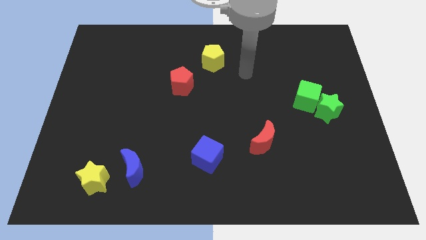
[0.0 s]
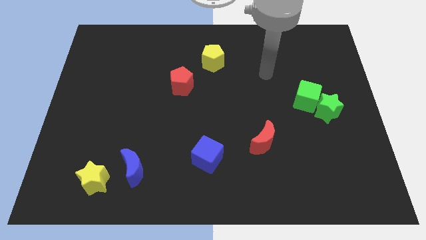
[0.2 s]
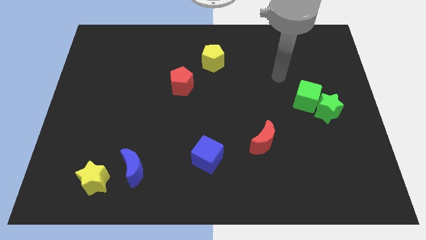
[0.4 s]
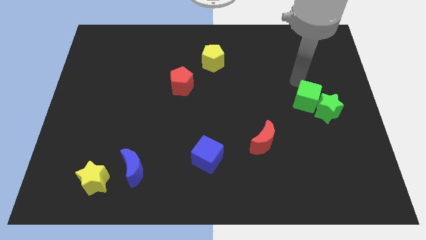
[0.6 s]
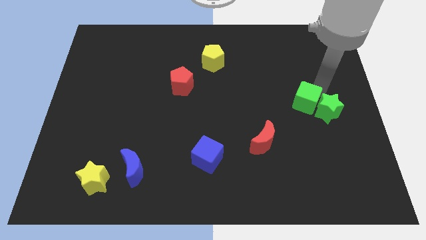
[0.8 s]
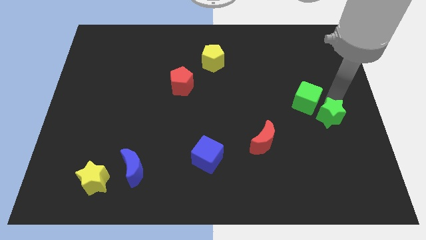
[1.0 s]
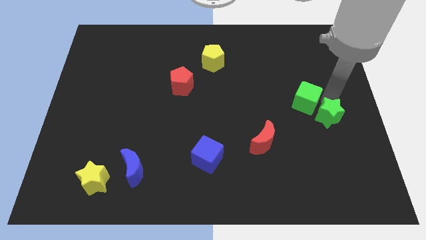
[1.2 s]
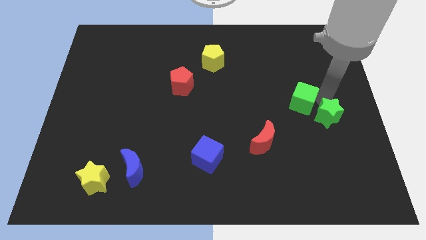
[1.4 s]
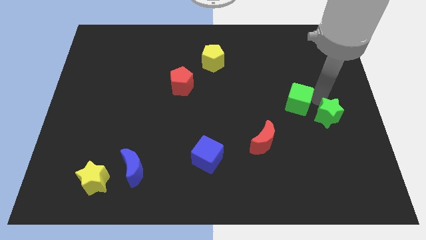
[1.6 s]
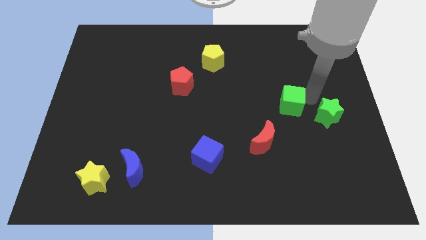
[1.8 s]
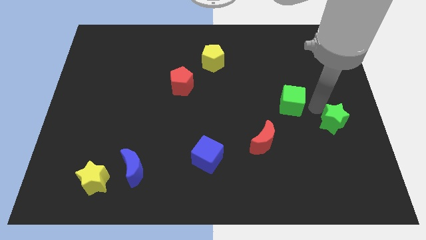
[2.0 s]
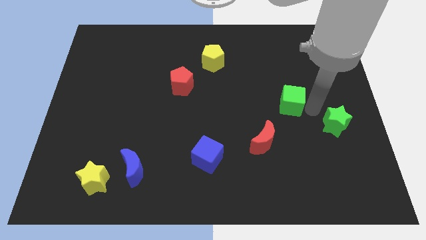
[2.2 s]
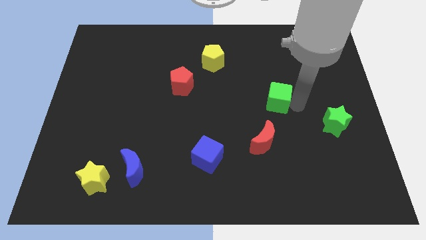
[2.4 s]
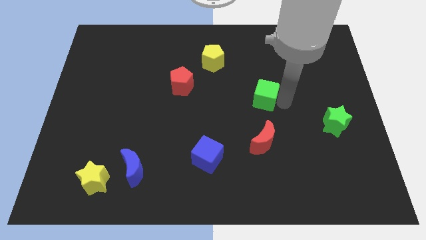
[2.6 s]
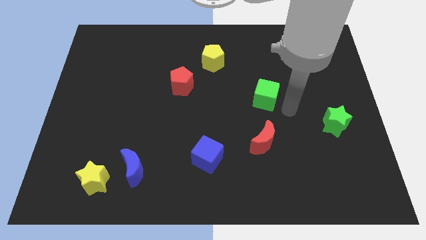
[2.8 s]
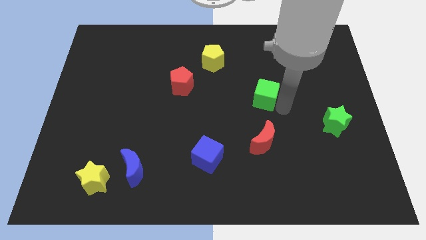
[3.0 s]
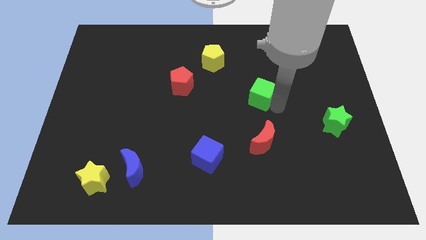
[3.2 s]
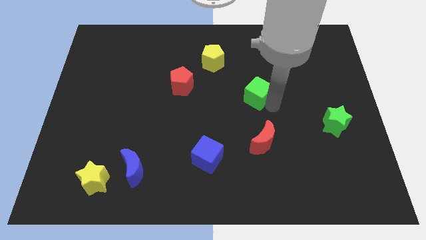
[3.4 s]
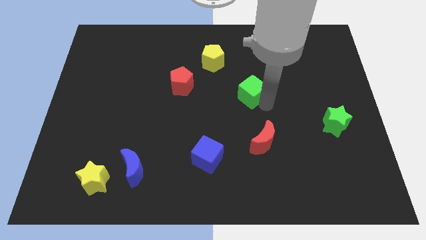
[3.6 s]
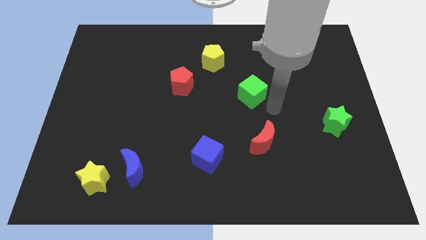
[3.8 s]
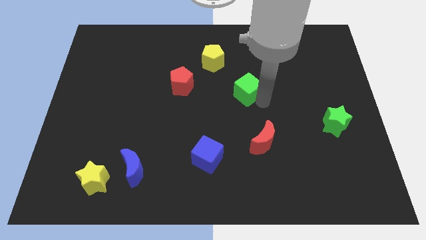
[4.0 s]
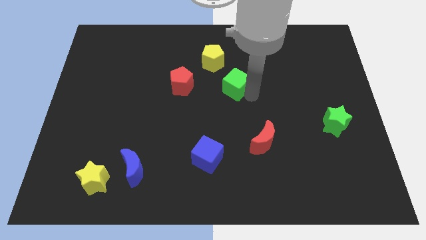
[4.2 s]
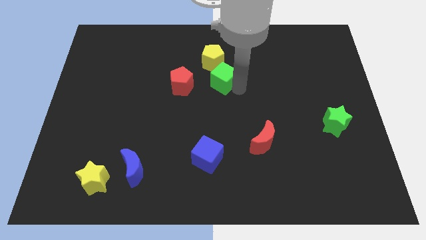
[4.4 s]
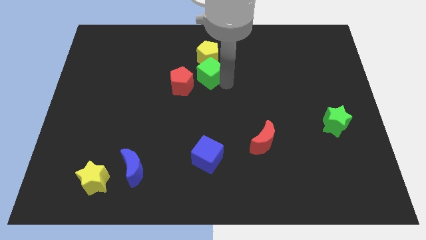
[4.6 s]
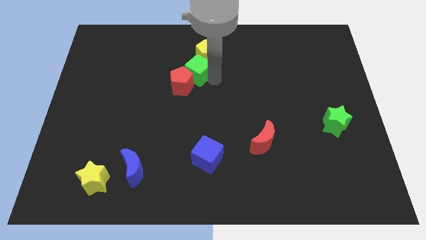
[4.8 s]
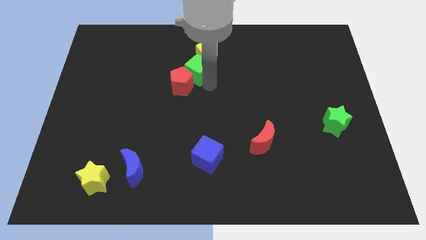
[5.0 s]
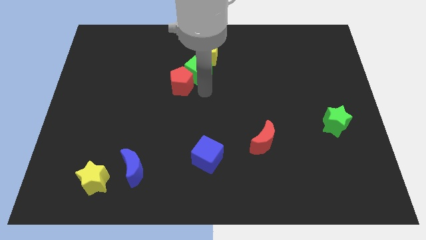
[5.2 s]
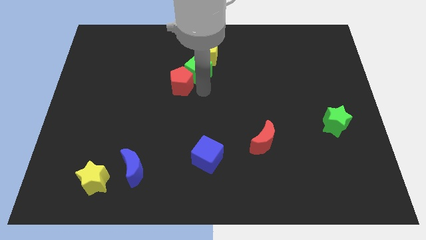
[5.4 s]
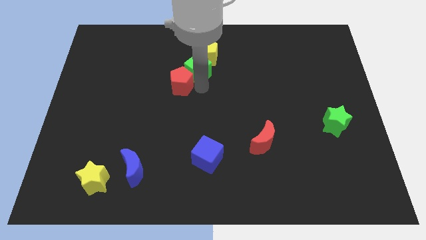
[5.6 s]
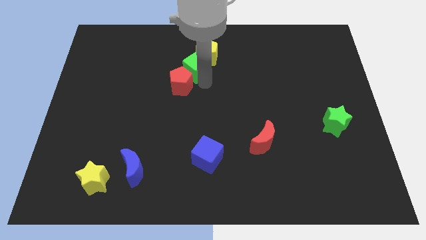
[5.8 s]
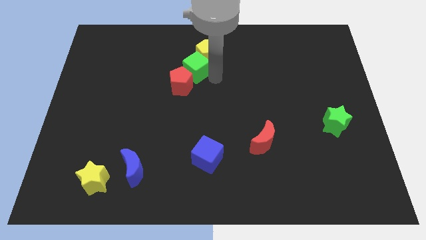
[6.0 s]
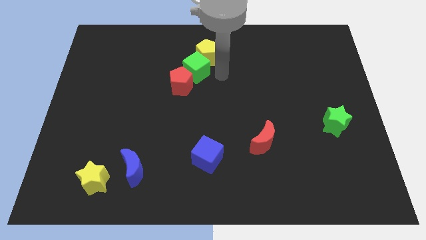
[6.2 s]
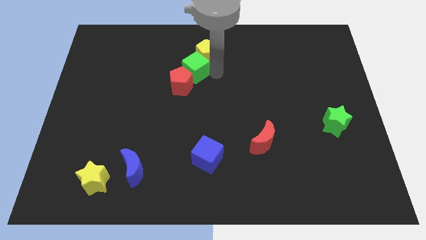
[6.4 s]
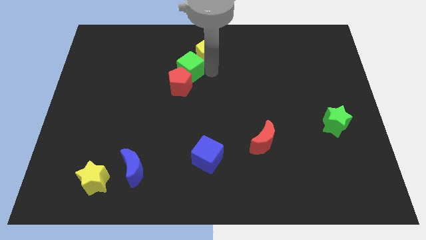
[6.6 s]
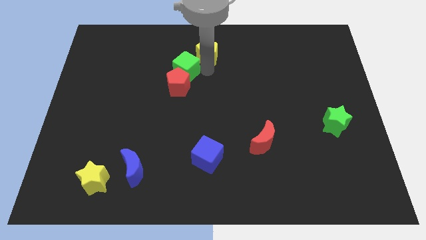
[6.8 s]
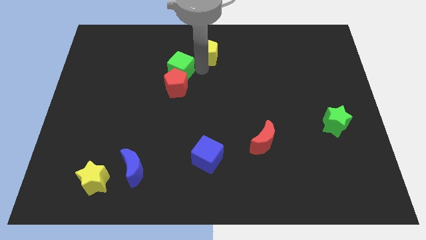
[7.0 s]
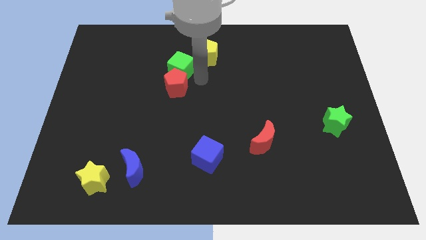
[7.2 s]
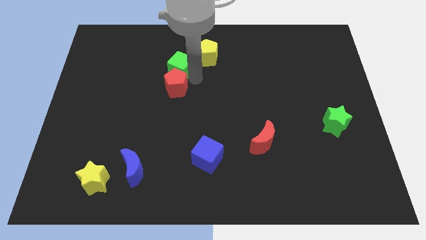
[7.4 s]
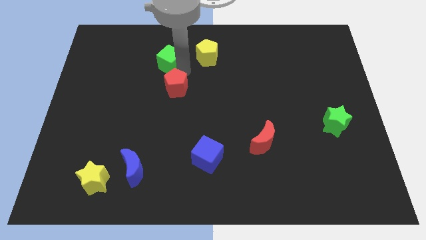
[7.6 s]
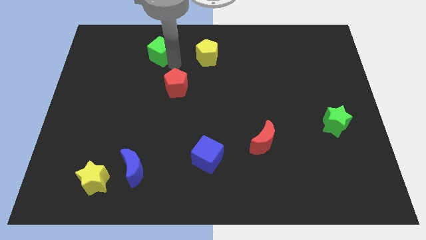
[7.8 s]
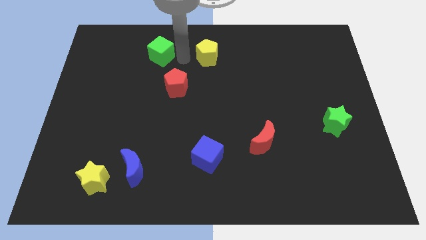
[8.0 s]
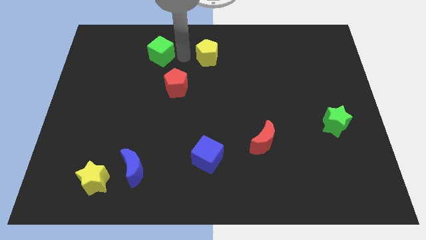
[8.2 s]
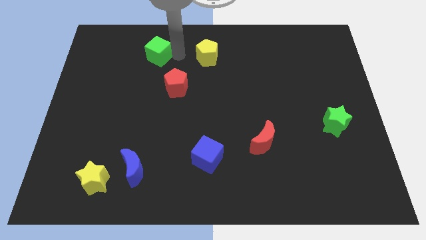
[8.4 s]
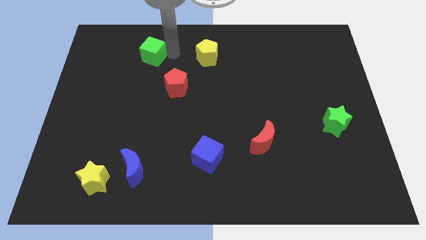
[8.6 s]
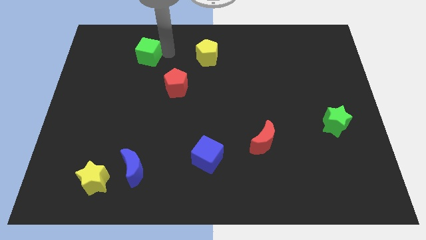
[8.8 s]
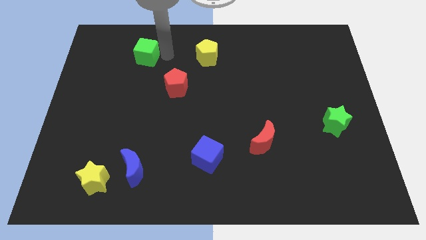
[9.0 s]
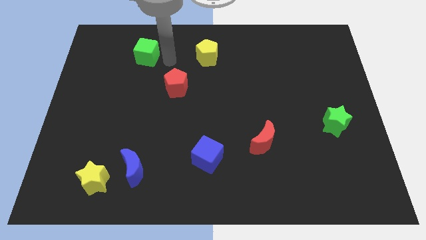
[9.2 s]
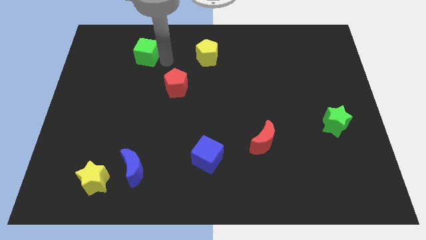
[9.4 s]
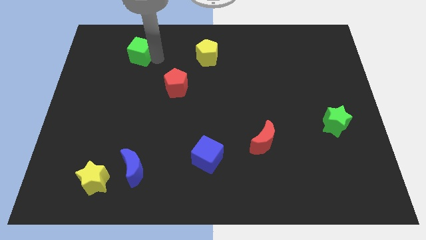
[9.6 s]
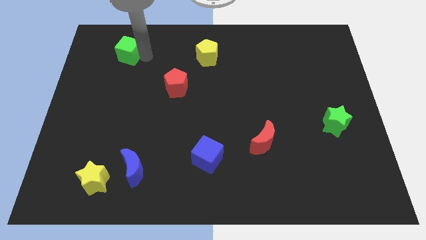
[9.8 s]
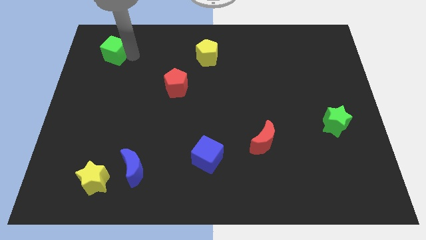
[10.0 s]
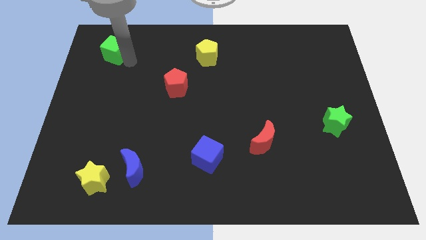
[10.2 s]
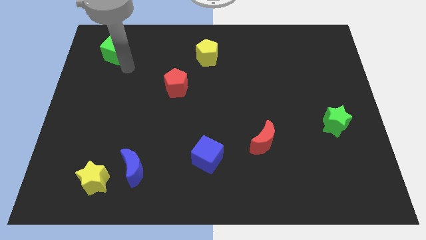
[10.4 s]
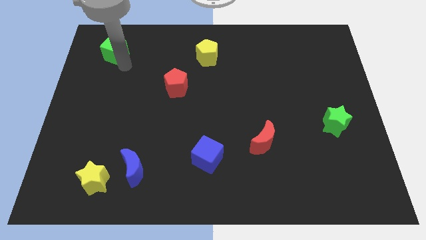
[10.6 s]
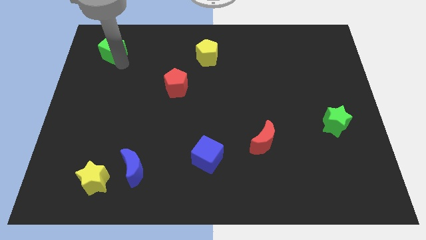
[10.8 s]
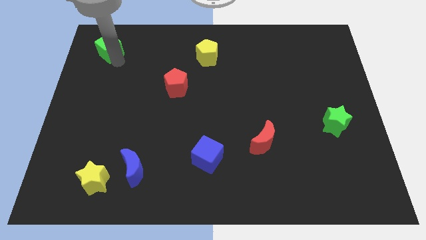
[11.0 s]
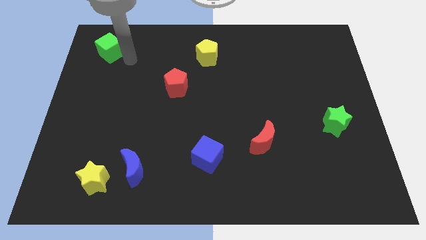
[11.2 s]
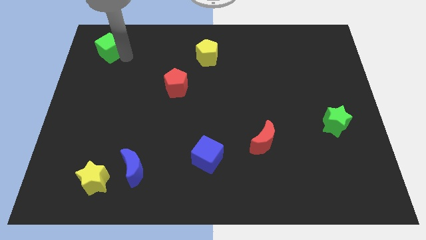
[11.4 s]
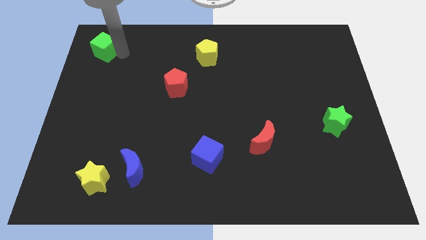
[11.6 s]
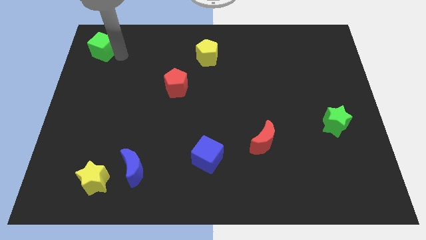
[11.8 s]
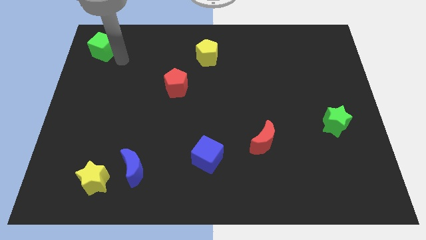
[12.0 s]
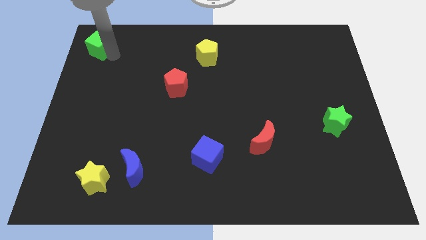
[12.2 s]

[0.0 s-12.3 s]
slide the green cube to the top left of the board

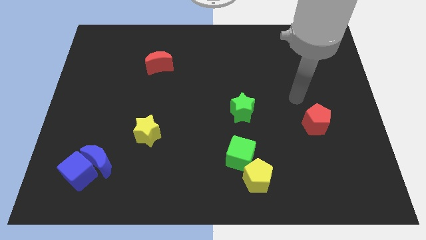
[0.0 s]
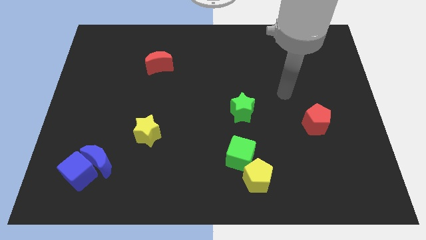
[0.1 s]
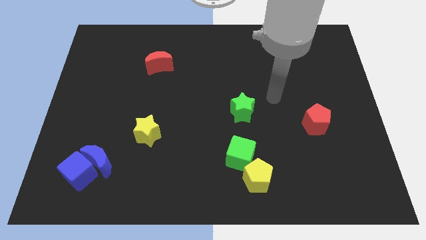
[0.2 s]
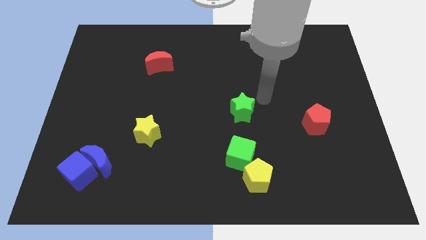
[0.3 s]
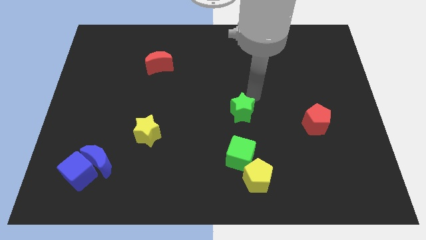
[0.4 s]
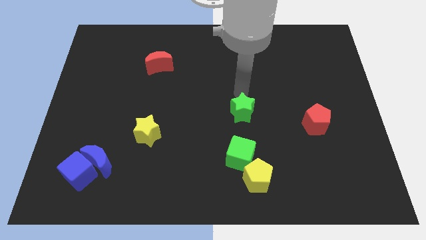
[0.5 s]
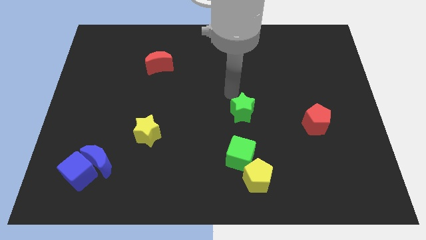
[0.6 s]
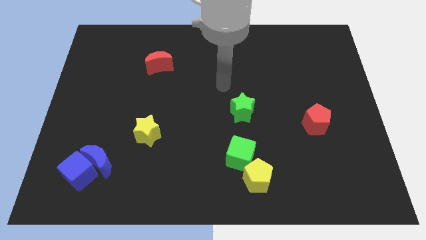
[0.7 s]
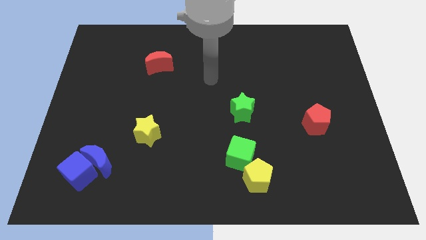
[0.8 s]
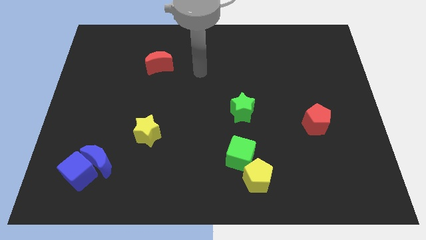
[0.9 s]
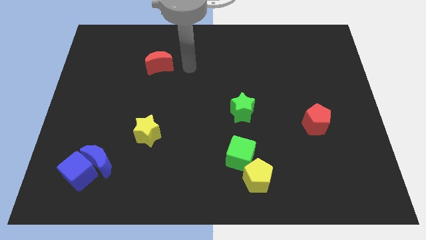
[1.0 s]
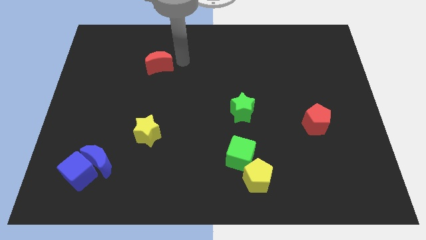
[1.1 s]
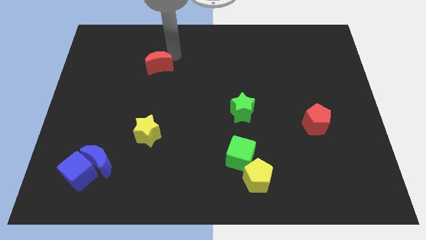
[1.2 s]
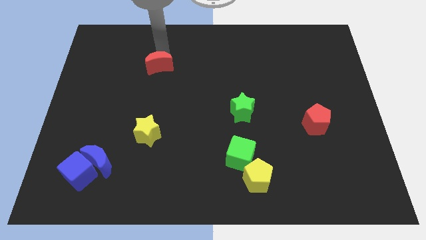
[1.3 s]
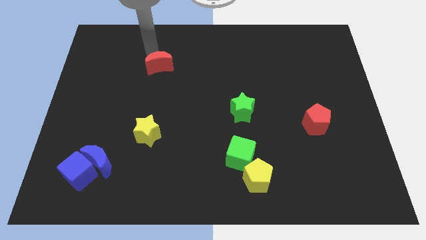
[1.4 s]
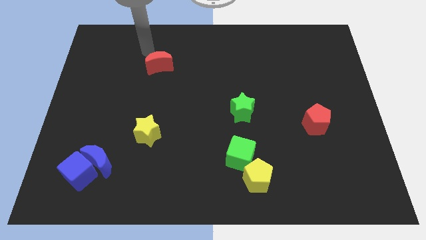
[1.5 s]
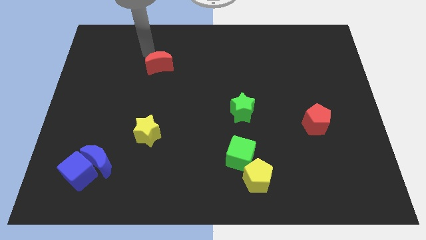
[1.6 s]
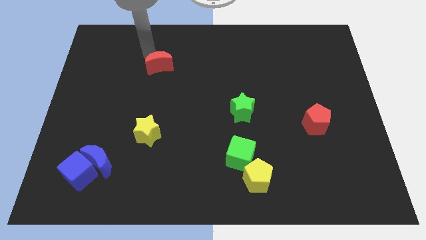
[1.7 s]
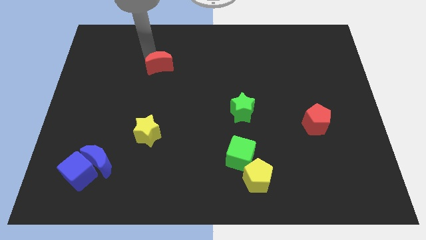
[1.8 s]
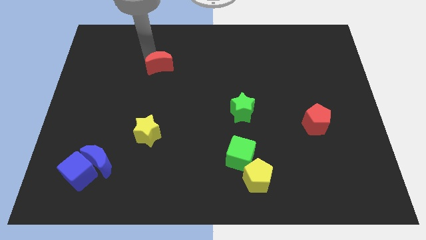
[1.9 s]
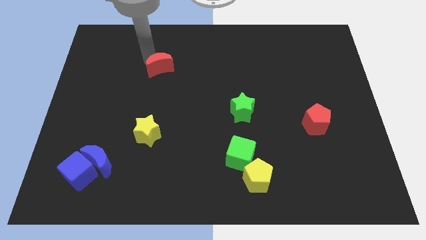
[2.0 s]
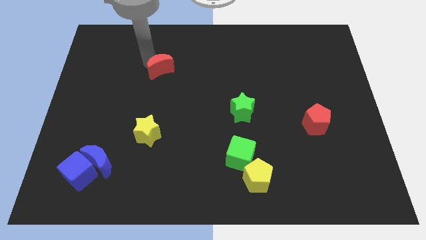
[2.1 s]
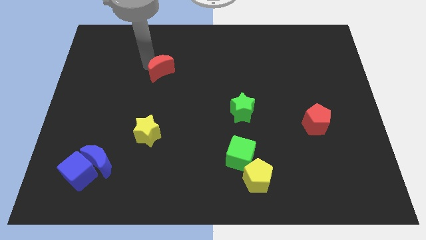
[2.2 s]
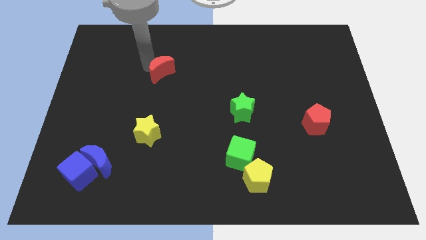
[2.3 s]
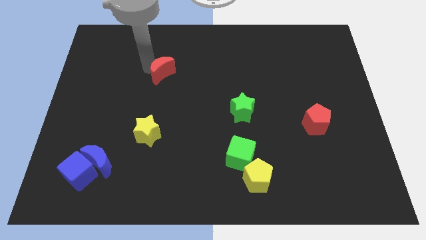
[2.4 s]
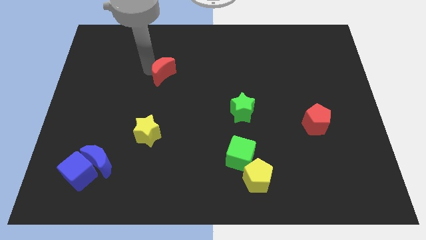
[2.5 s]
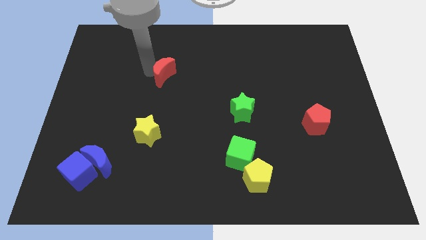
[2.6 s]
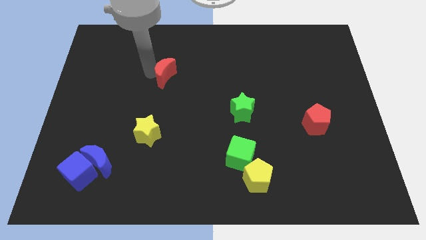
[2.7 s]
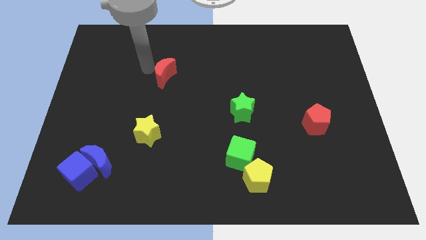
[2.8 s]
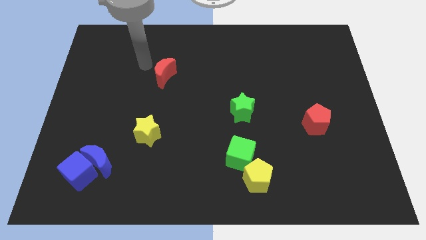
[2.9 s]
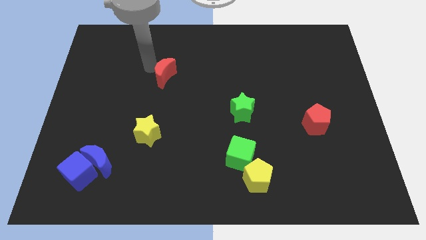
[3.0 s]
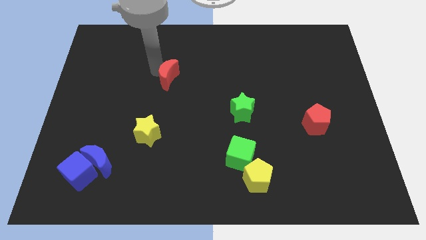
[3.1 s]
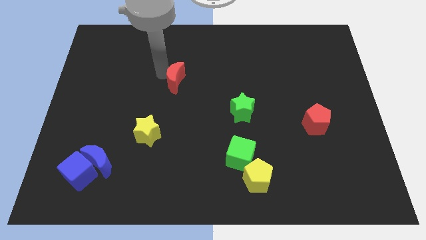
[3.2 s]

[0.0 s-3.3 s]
slide the red moon to the center of the board
